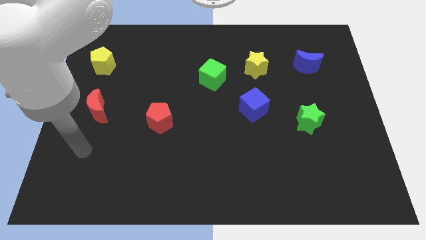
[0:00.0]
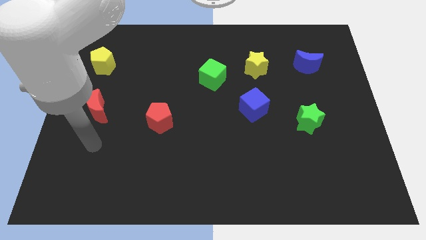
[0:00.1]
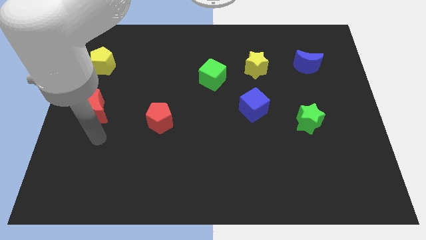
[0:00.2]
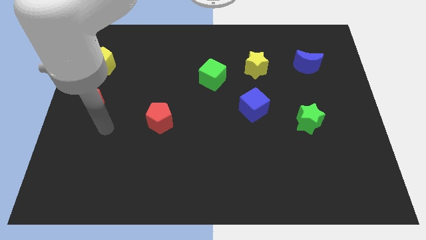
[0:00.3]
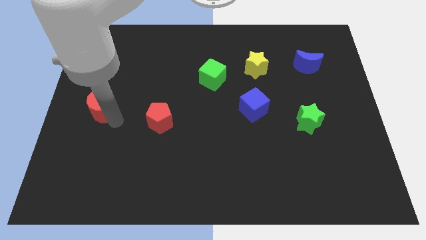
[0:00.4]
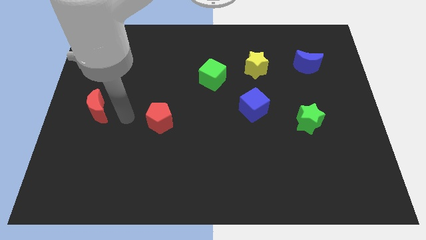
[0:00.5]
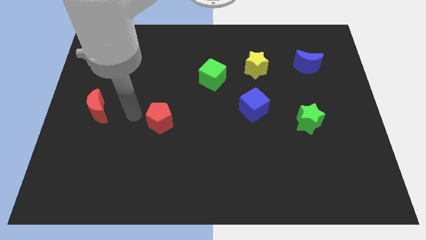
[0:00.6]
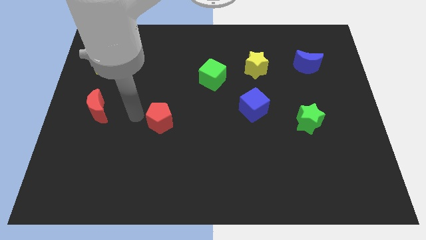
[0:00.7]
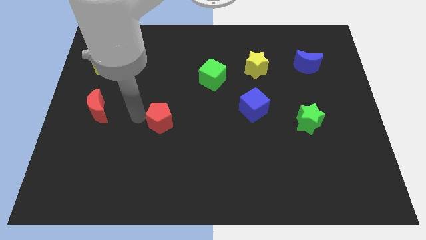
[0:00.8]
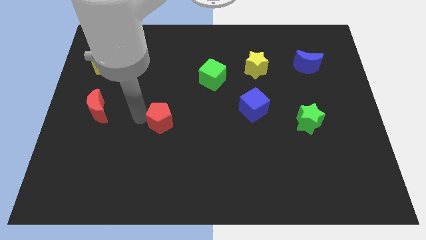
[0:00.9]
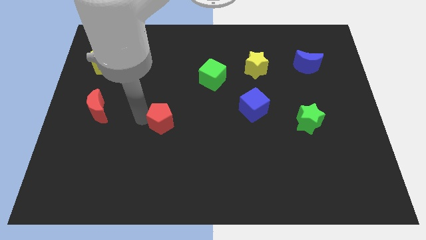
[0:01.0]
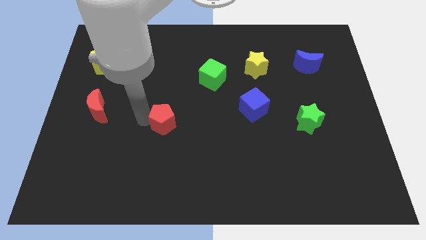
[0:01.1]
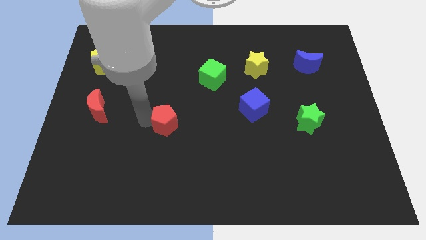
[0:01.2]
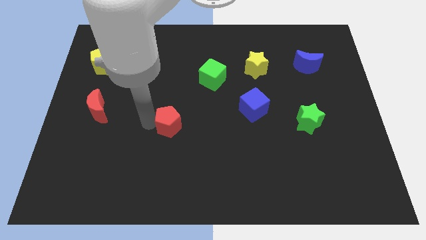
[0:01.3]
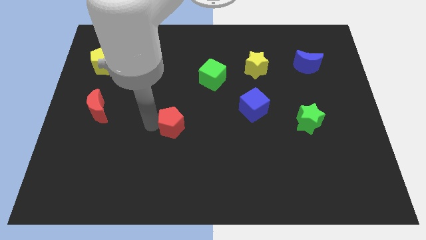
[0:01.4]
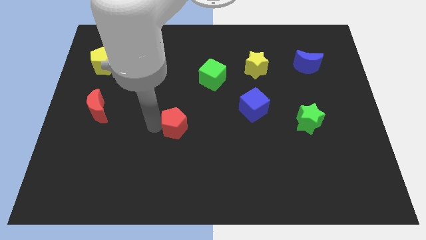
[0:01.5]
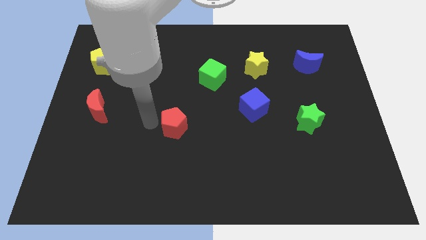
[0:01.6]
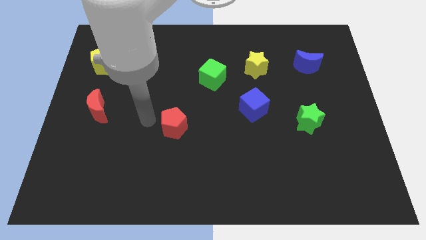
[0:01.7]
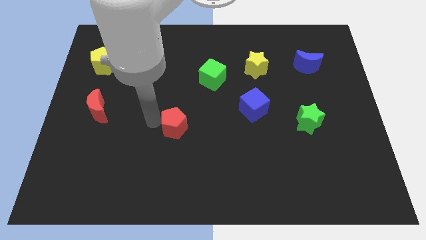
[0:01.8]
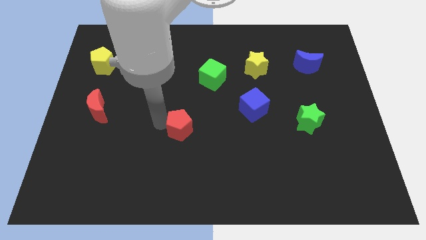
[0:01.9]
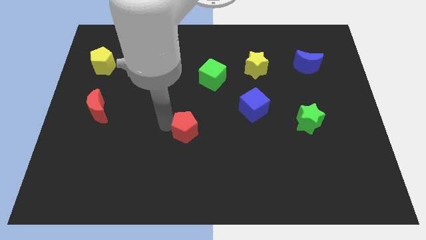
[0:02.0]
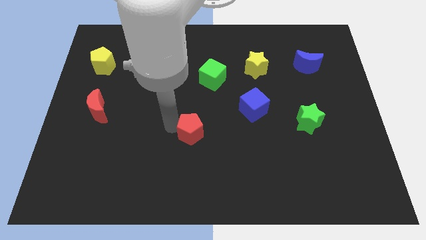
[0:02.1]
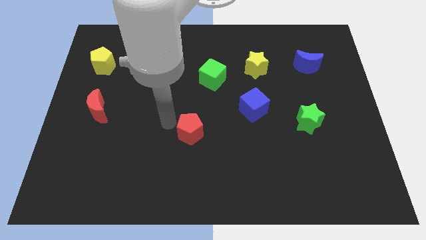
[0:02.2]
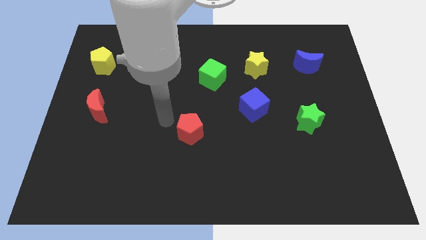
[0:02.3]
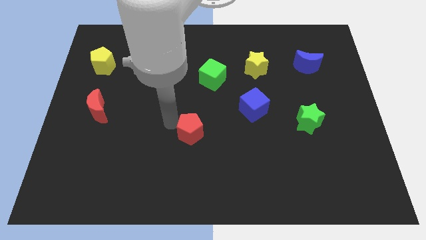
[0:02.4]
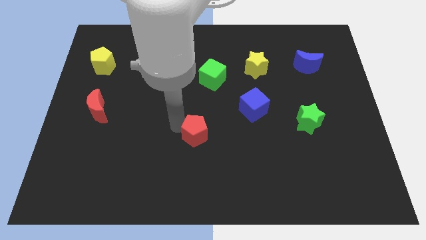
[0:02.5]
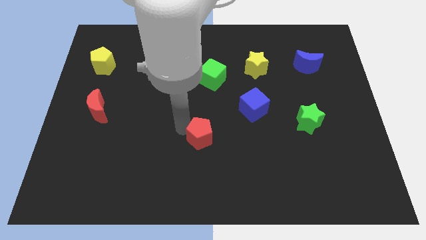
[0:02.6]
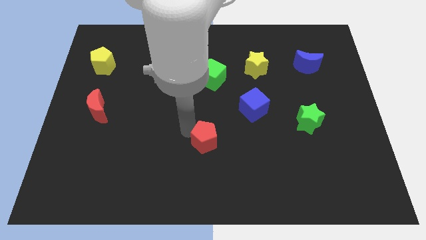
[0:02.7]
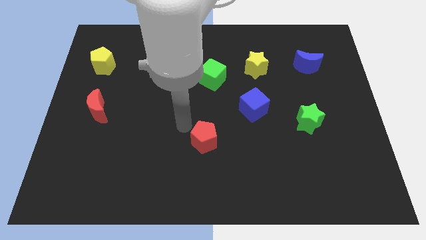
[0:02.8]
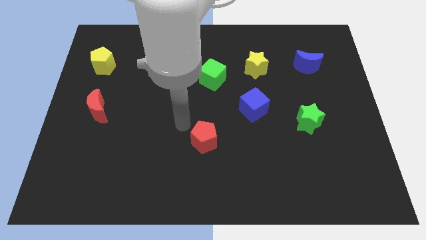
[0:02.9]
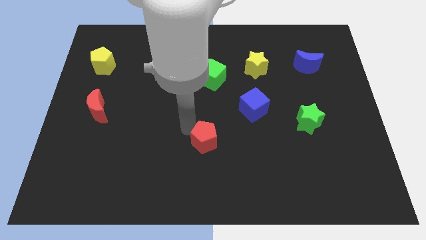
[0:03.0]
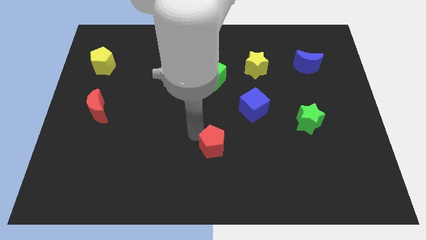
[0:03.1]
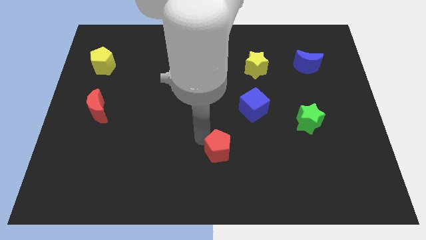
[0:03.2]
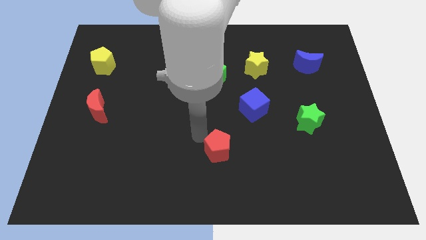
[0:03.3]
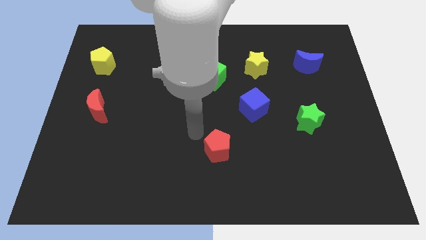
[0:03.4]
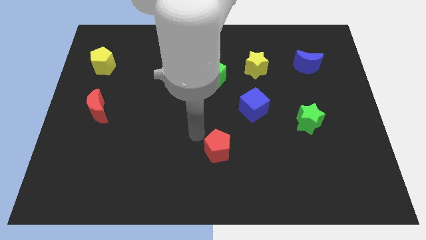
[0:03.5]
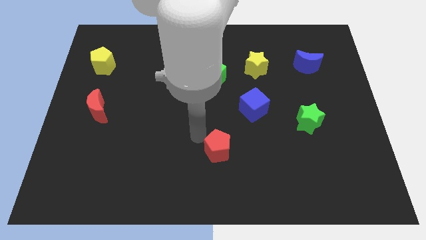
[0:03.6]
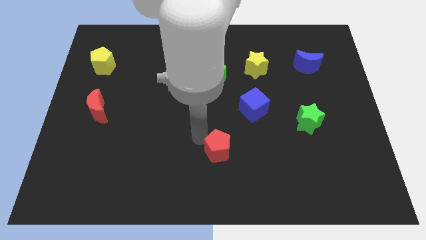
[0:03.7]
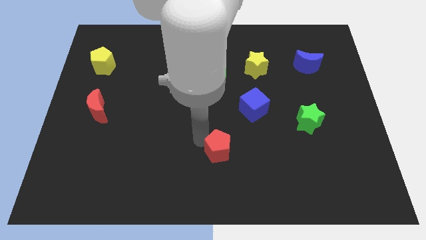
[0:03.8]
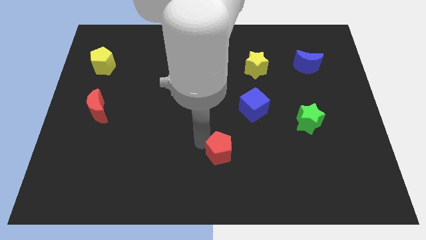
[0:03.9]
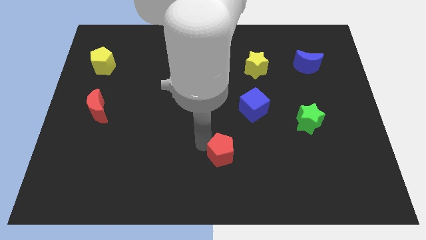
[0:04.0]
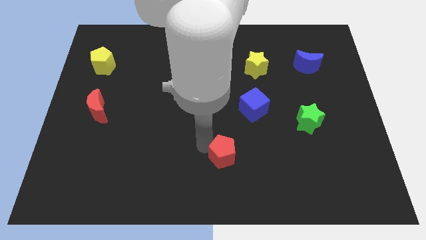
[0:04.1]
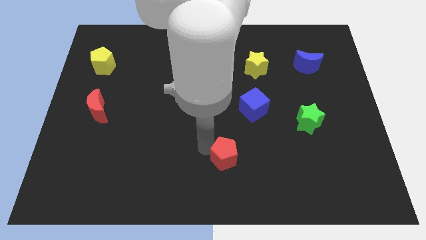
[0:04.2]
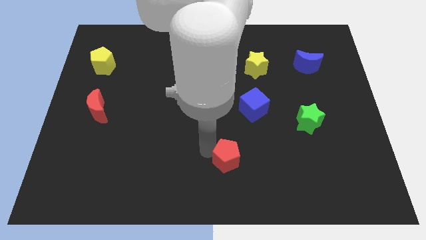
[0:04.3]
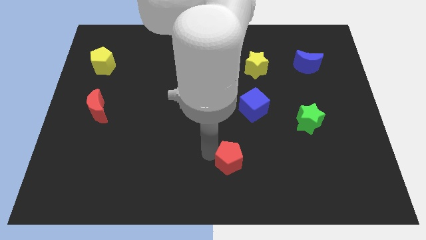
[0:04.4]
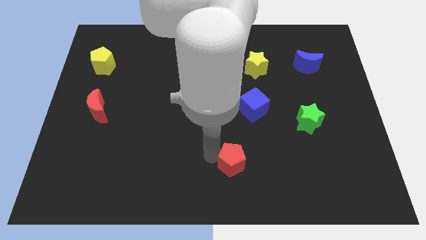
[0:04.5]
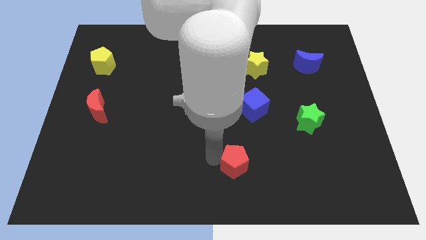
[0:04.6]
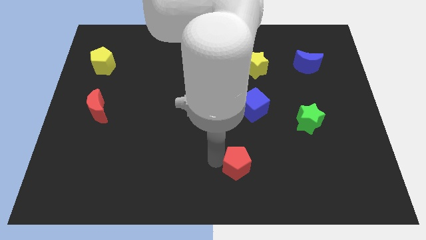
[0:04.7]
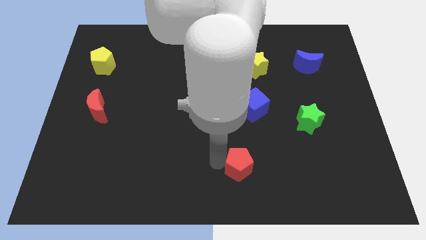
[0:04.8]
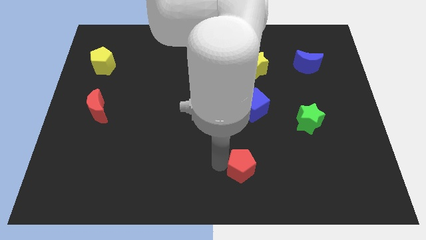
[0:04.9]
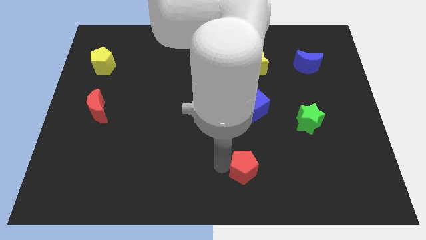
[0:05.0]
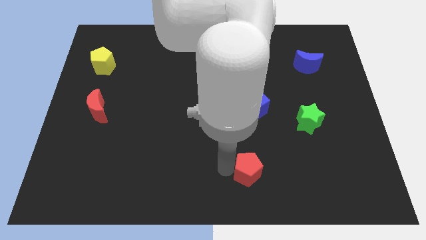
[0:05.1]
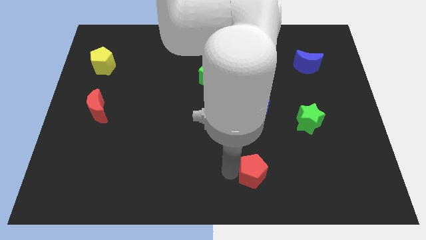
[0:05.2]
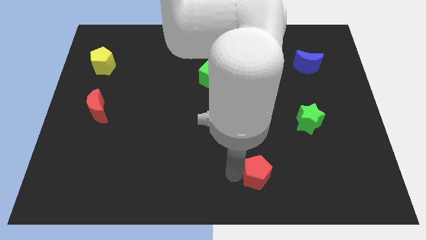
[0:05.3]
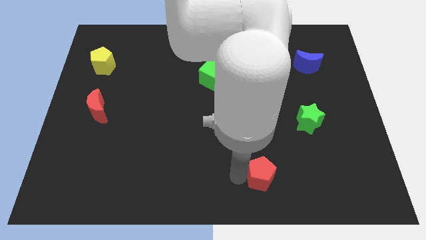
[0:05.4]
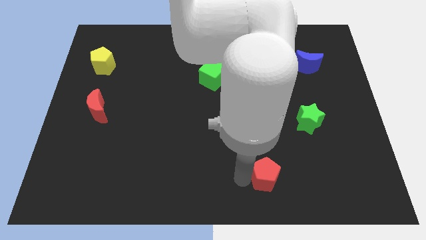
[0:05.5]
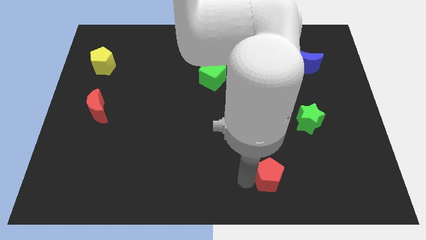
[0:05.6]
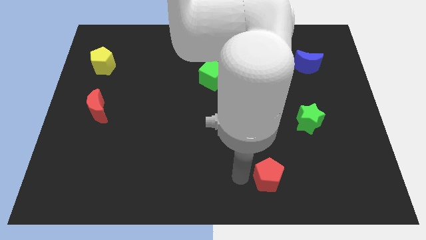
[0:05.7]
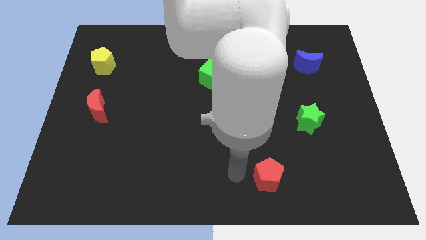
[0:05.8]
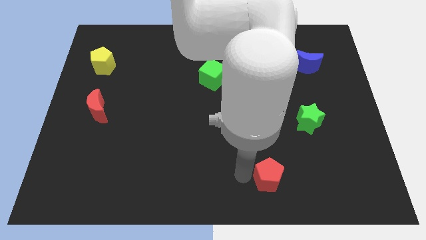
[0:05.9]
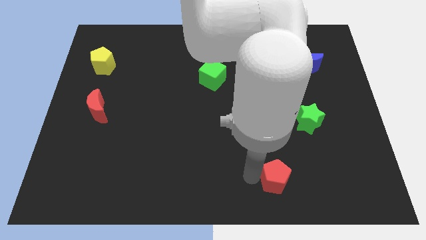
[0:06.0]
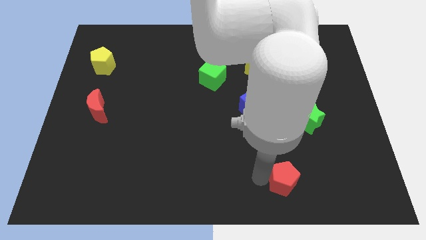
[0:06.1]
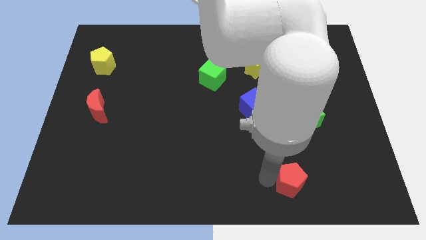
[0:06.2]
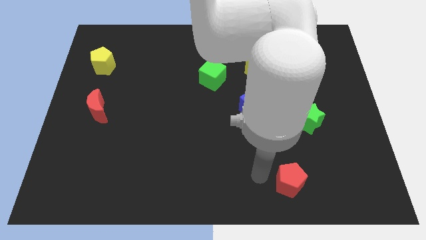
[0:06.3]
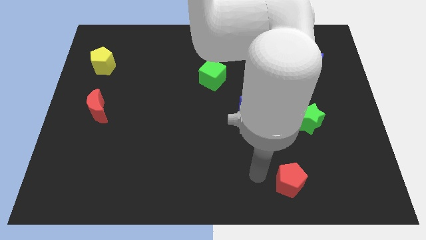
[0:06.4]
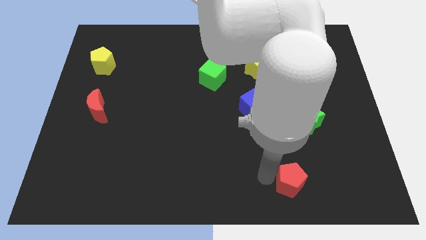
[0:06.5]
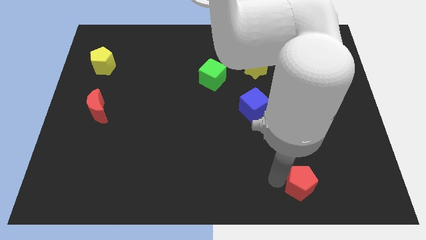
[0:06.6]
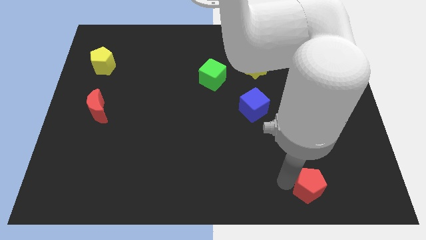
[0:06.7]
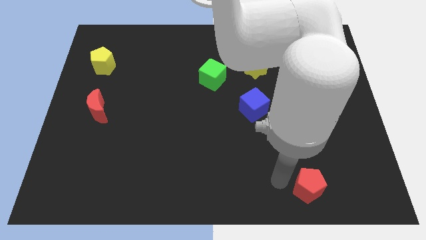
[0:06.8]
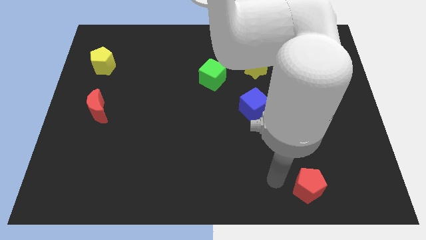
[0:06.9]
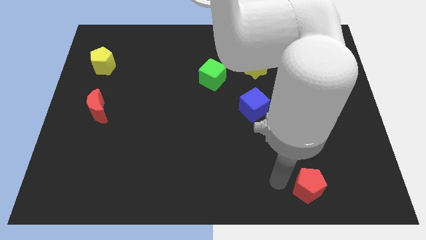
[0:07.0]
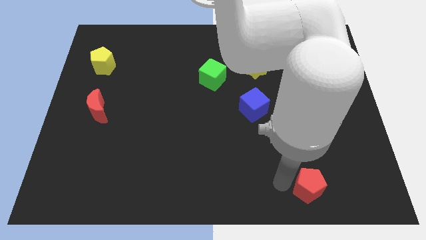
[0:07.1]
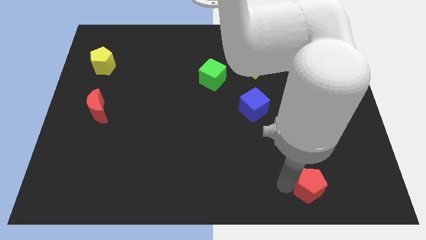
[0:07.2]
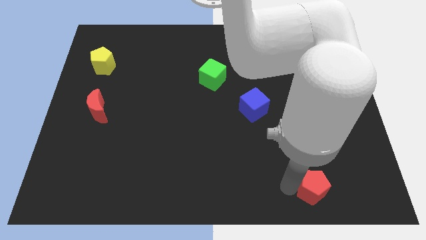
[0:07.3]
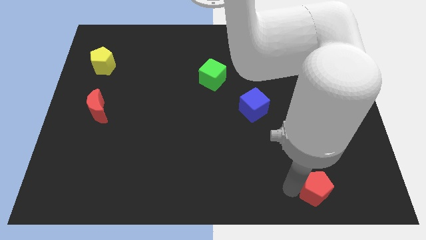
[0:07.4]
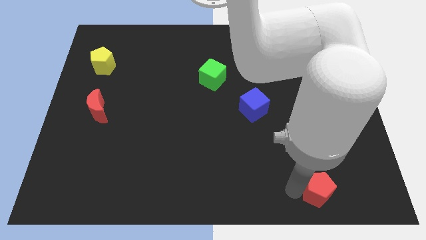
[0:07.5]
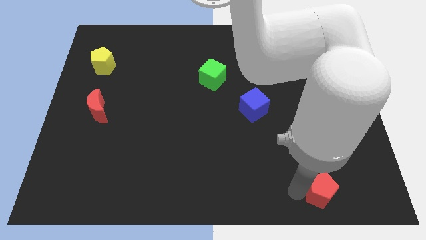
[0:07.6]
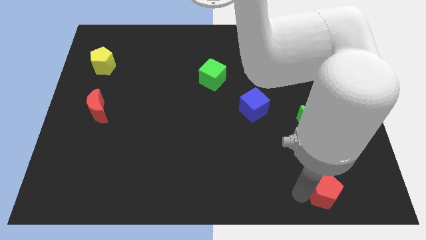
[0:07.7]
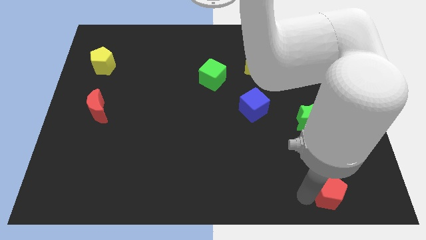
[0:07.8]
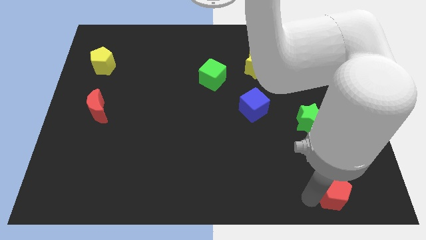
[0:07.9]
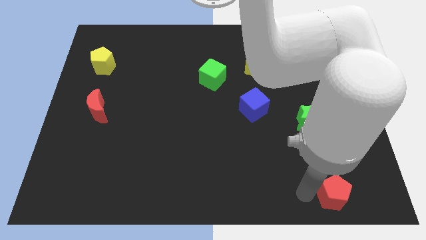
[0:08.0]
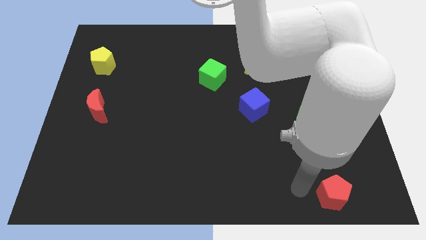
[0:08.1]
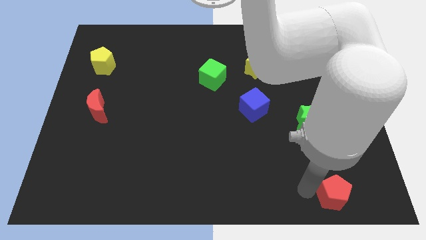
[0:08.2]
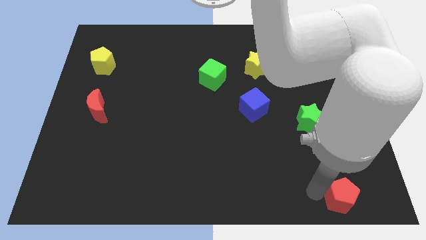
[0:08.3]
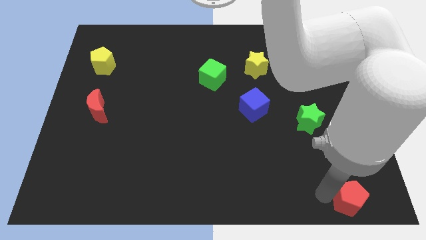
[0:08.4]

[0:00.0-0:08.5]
slide the red pentagon to the bottom right of the board
